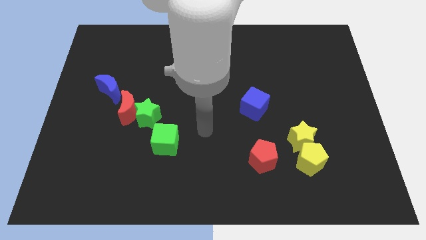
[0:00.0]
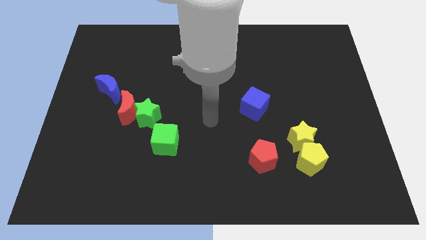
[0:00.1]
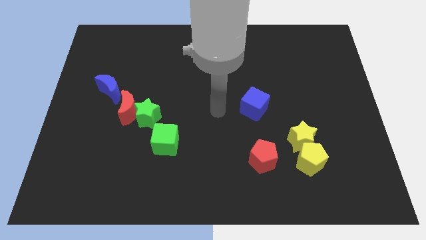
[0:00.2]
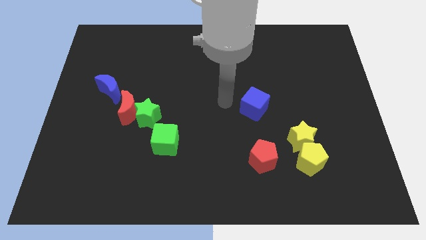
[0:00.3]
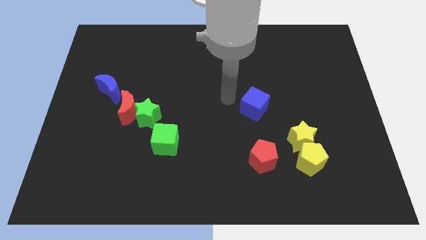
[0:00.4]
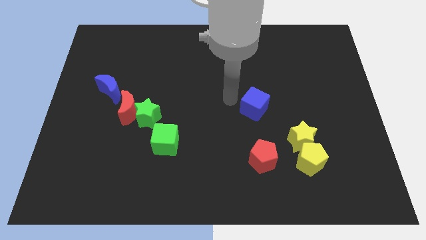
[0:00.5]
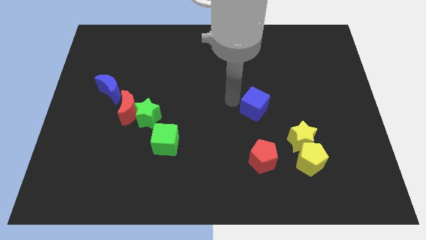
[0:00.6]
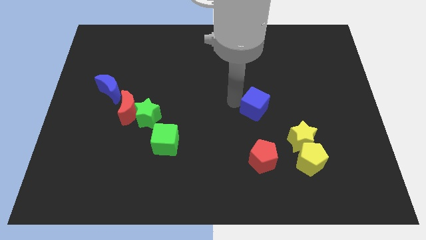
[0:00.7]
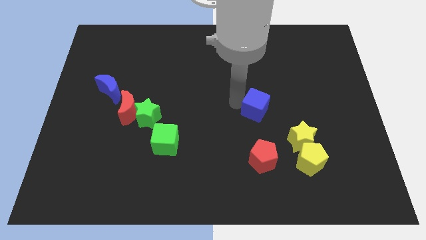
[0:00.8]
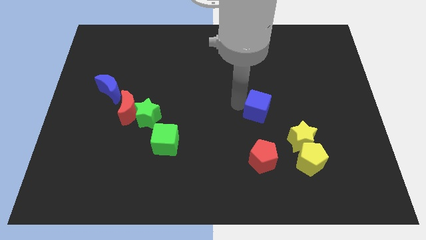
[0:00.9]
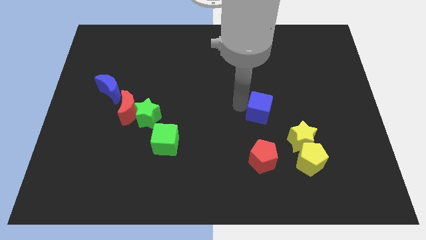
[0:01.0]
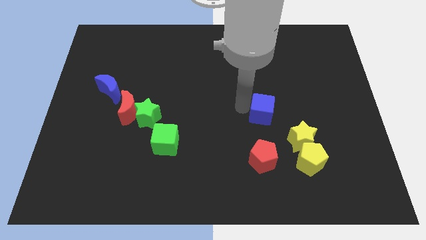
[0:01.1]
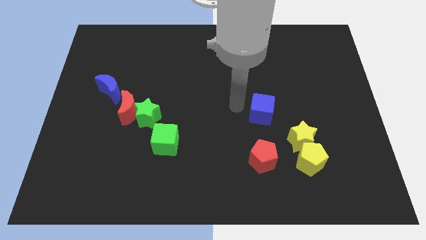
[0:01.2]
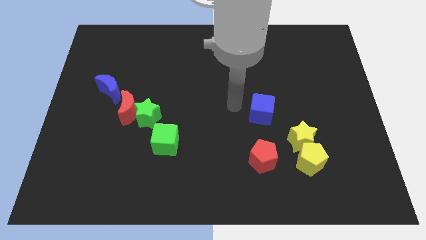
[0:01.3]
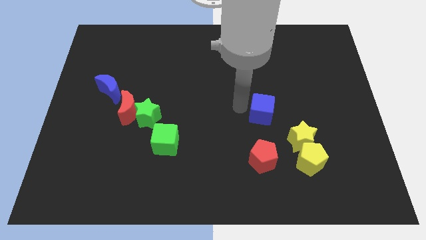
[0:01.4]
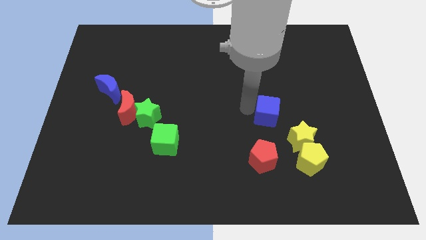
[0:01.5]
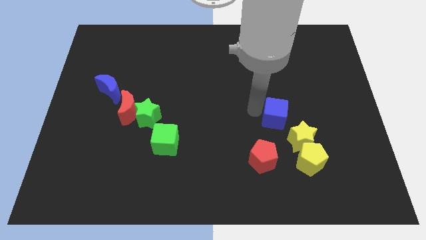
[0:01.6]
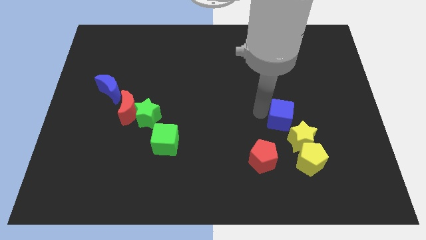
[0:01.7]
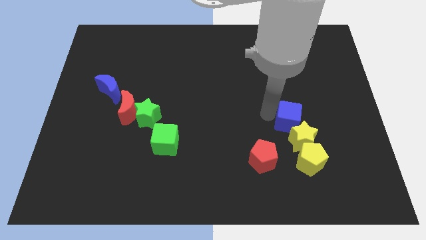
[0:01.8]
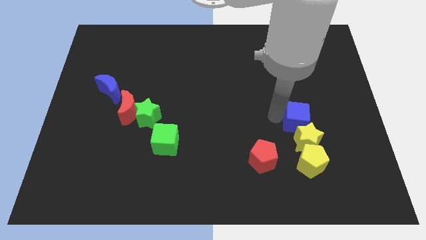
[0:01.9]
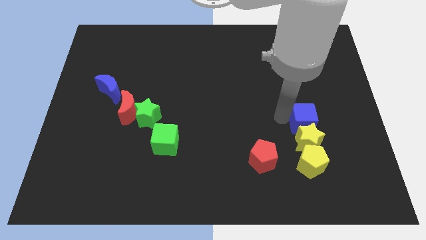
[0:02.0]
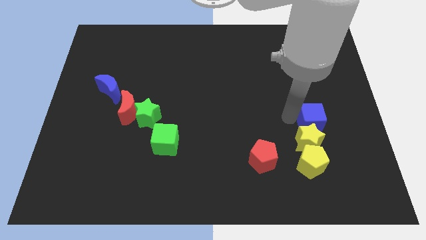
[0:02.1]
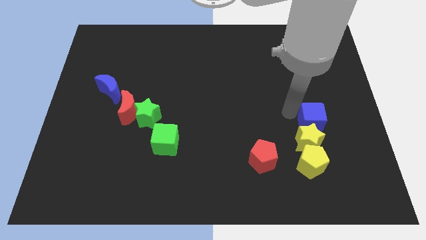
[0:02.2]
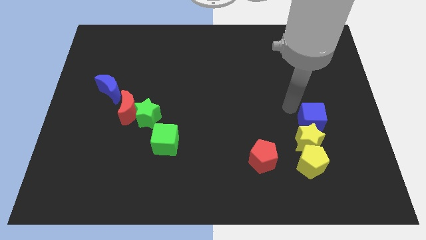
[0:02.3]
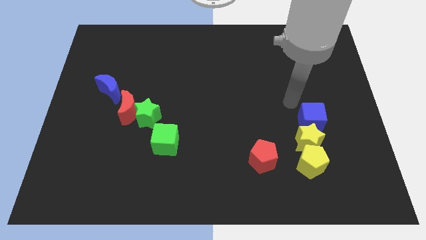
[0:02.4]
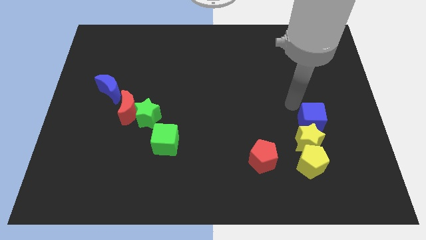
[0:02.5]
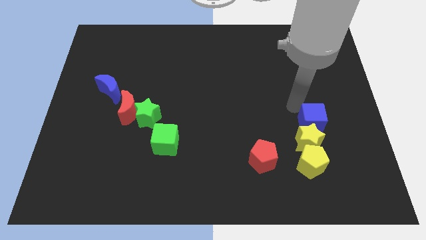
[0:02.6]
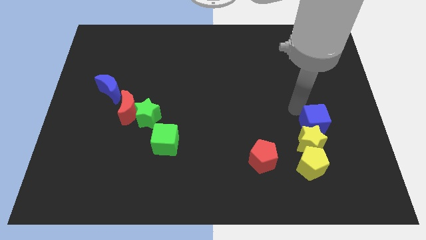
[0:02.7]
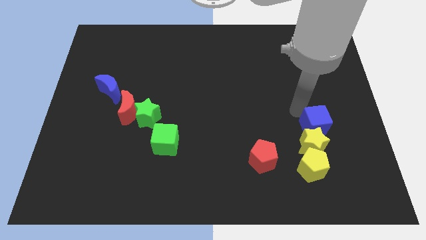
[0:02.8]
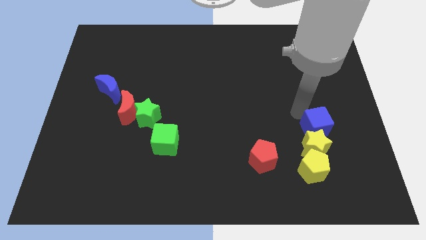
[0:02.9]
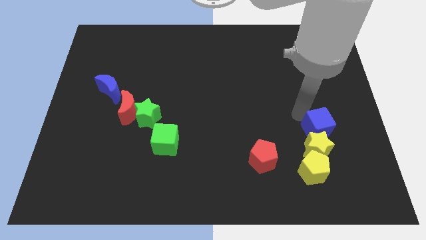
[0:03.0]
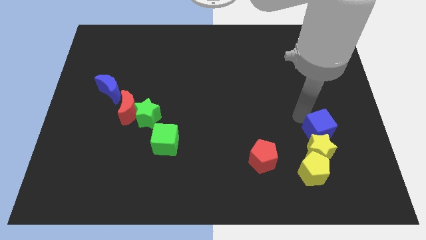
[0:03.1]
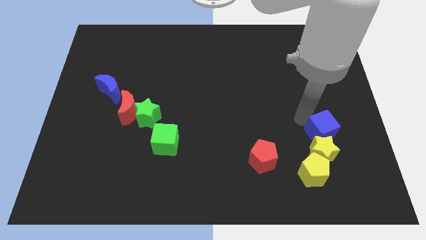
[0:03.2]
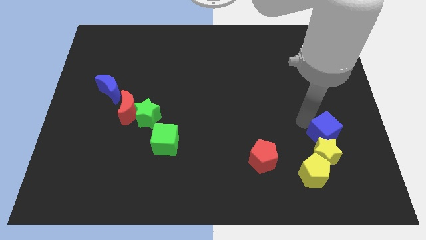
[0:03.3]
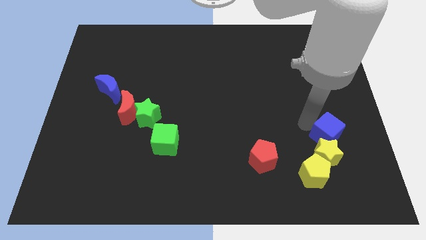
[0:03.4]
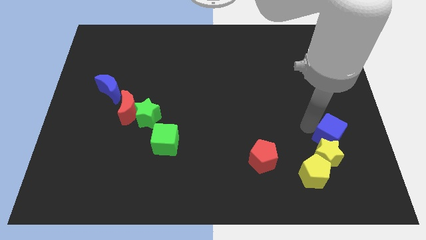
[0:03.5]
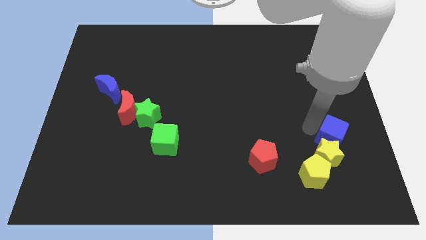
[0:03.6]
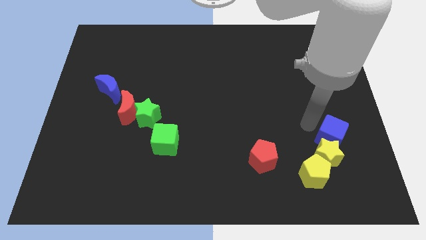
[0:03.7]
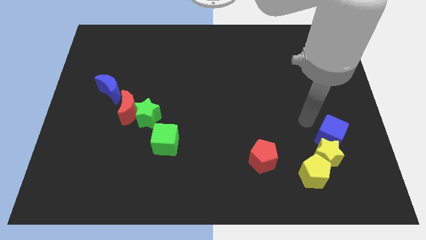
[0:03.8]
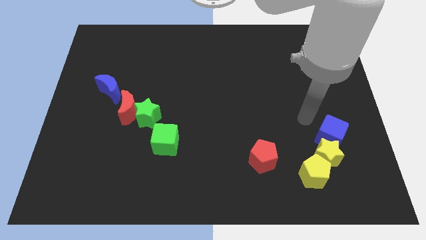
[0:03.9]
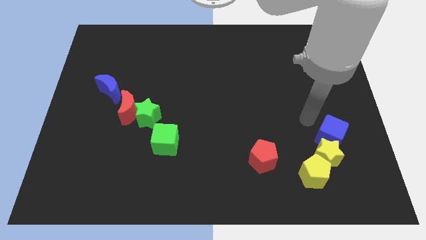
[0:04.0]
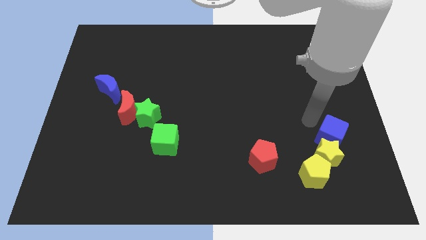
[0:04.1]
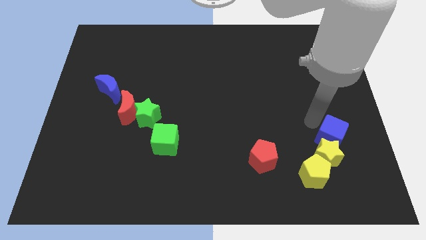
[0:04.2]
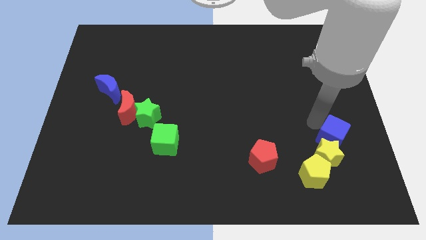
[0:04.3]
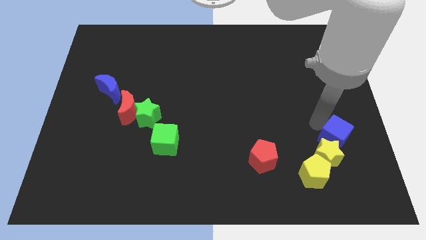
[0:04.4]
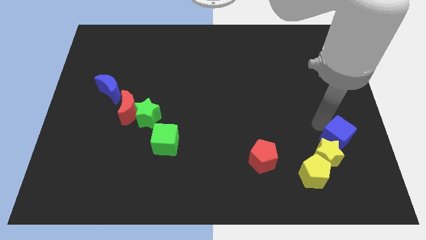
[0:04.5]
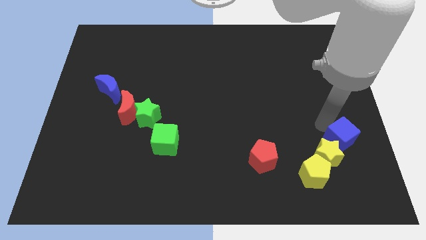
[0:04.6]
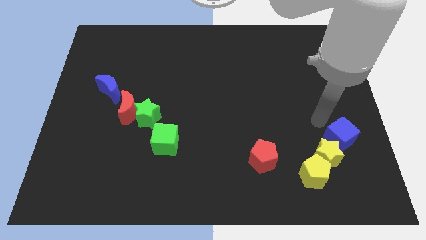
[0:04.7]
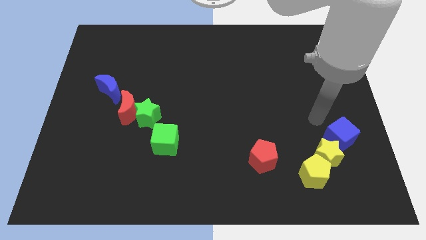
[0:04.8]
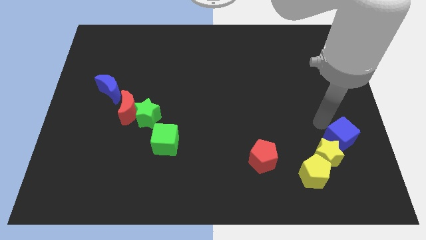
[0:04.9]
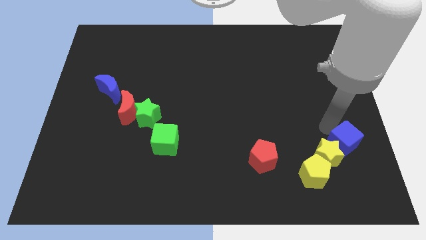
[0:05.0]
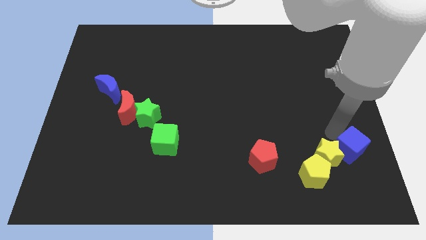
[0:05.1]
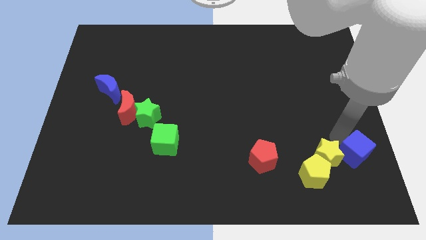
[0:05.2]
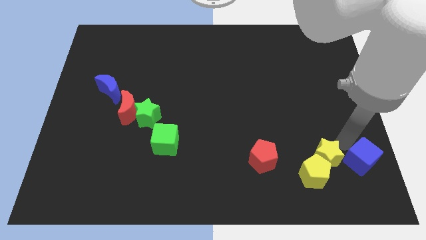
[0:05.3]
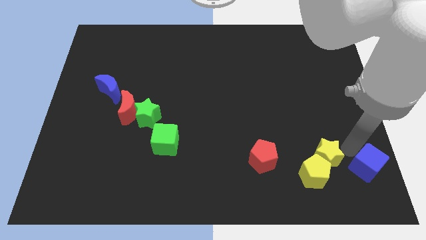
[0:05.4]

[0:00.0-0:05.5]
push the blue cube to the bottom right
